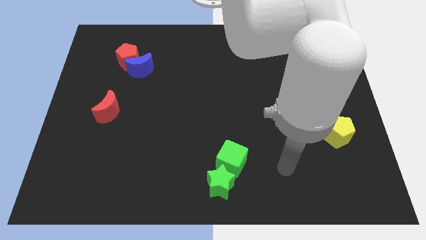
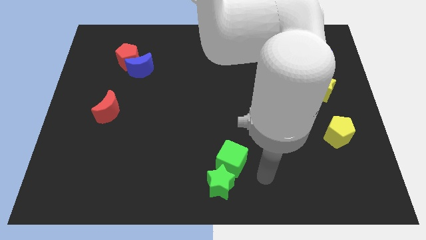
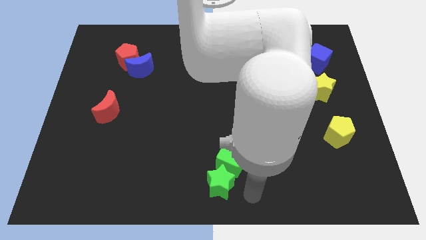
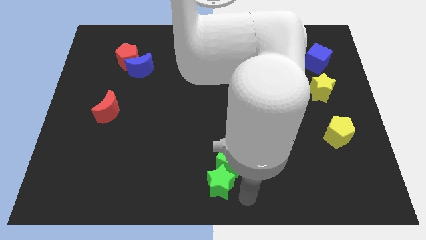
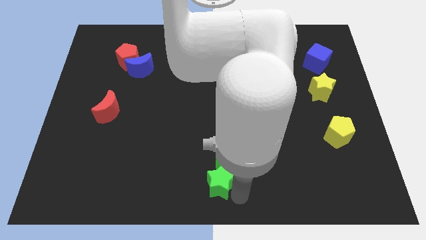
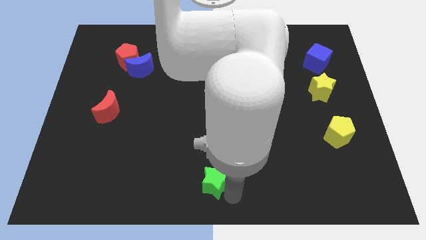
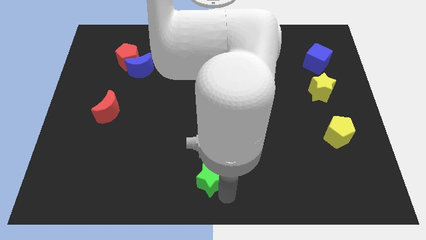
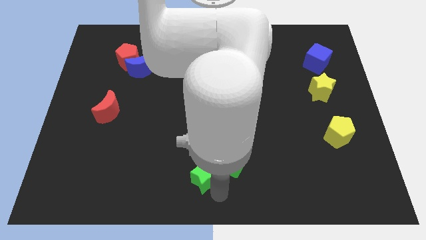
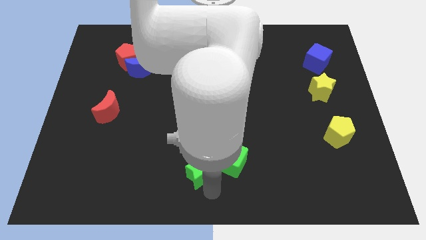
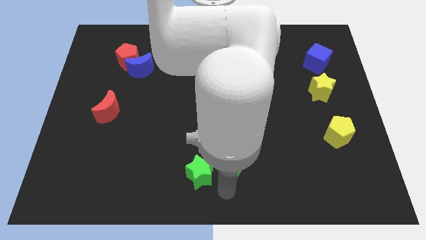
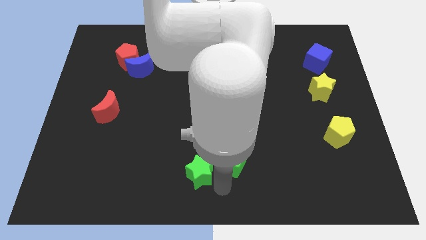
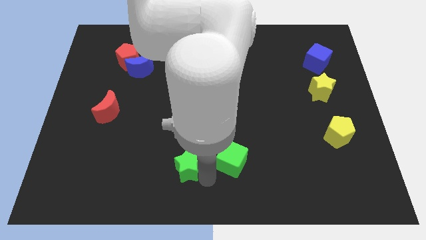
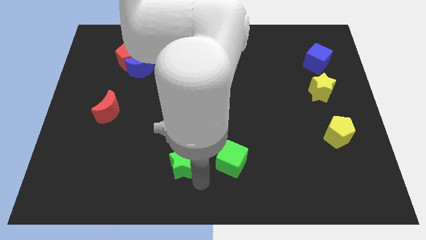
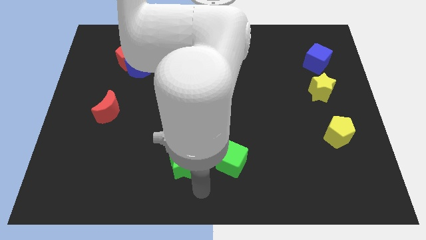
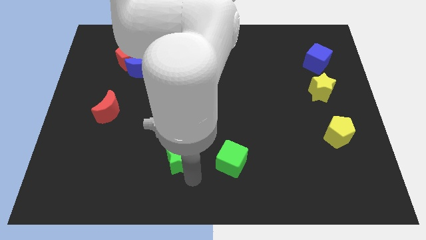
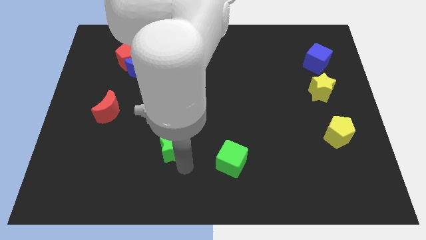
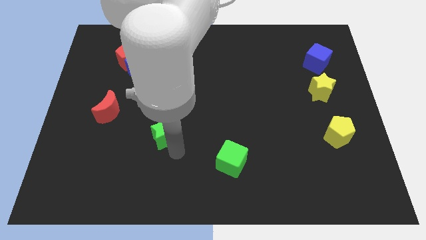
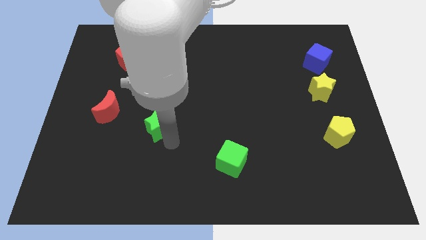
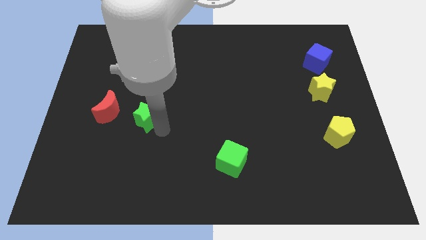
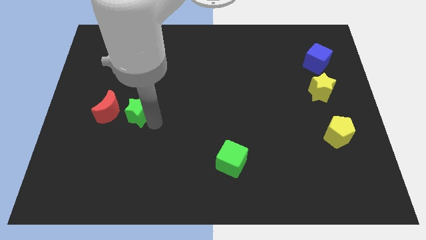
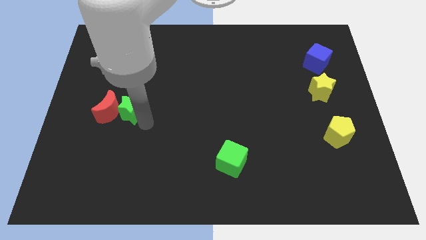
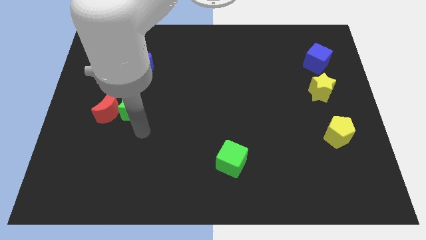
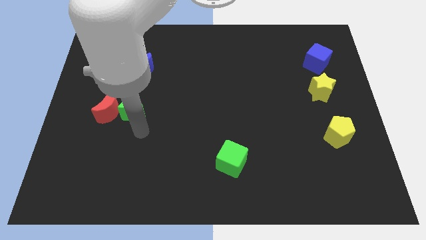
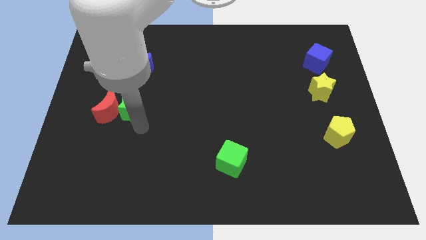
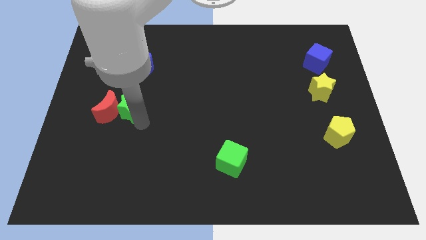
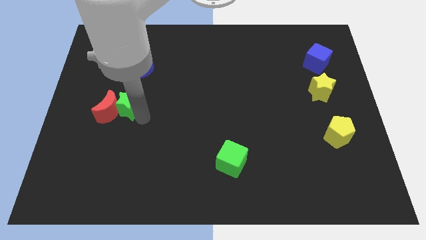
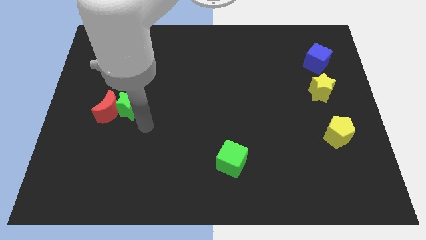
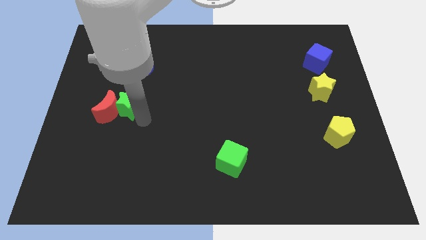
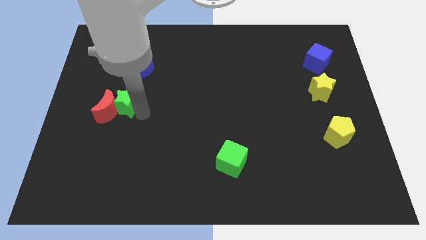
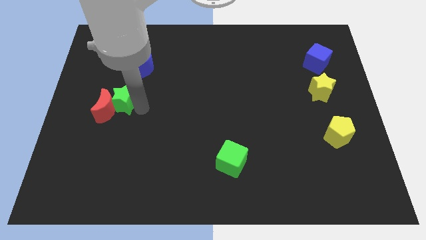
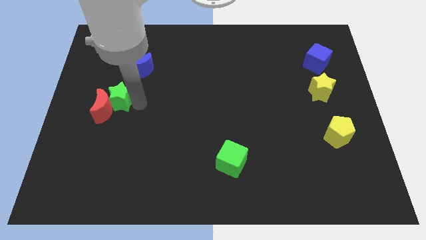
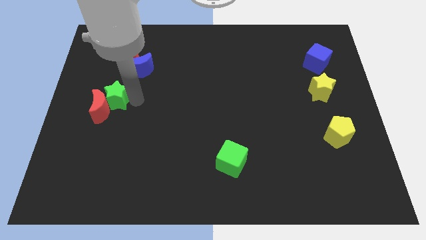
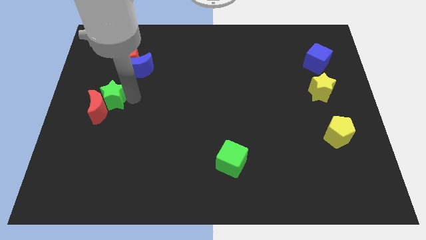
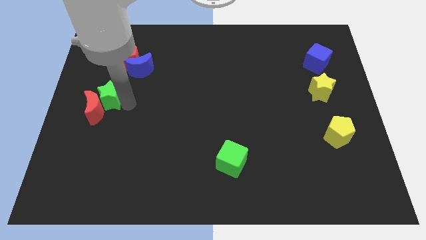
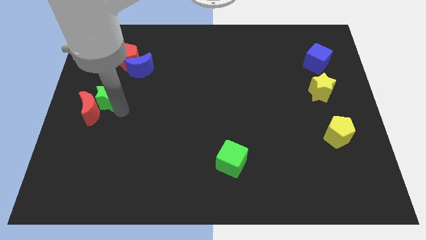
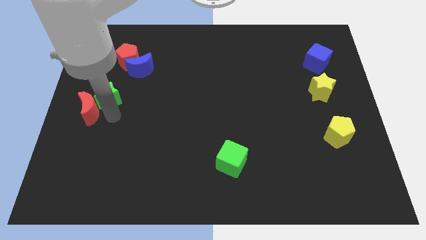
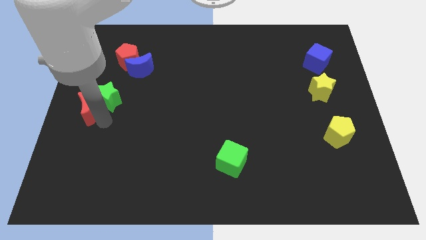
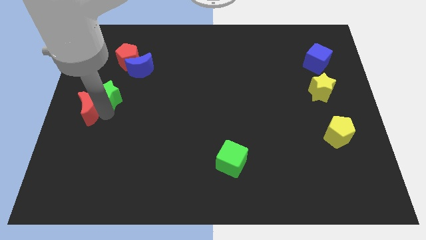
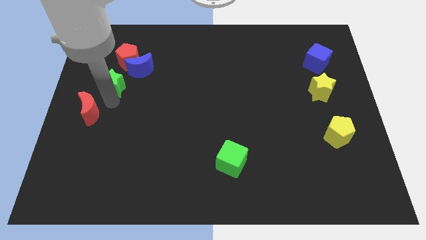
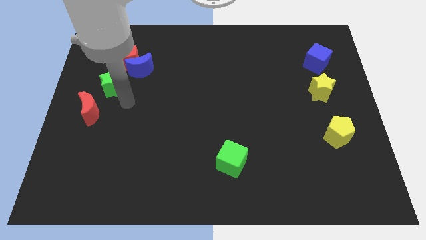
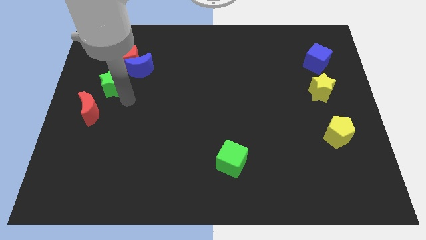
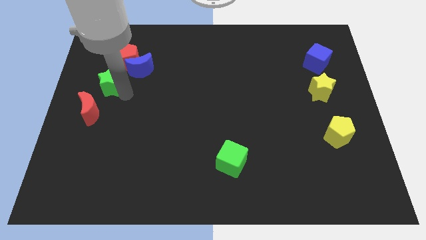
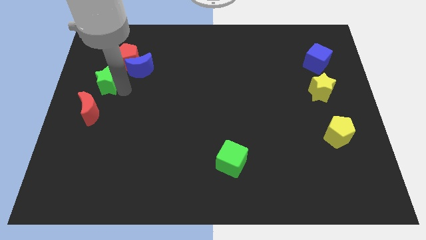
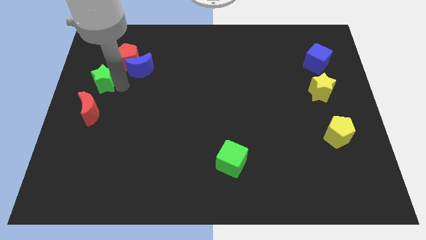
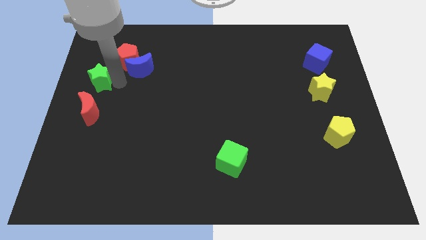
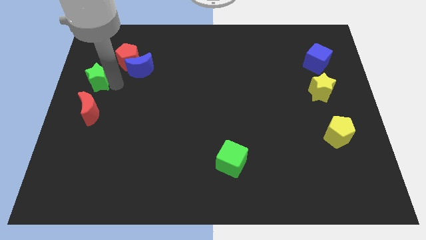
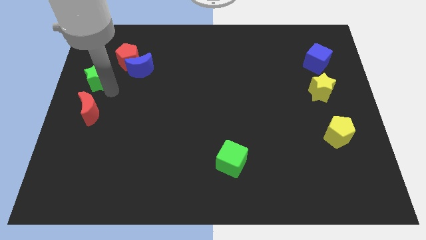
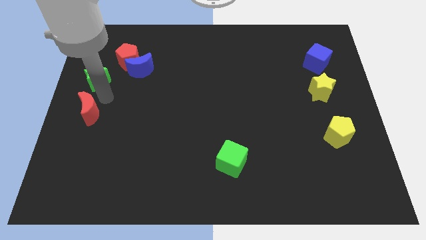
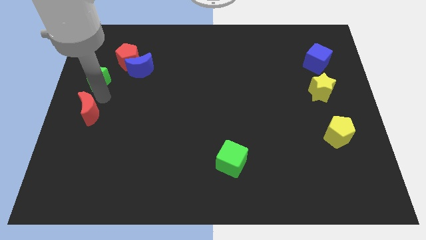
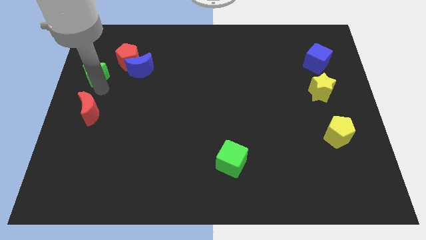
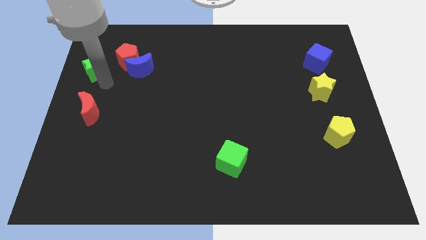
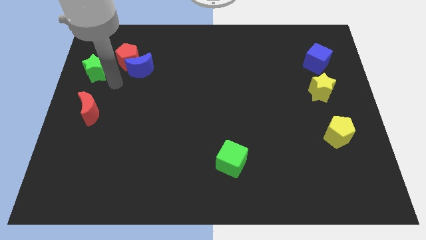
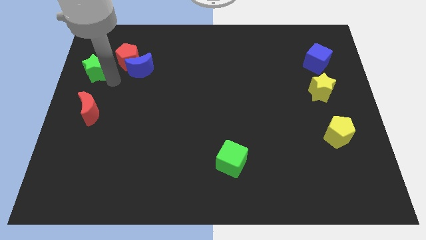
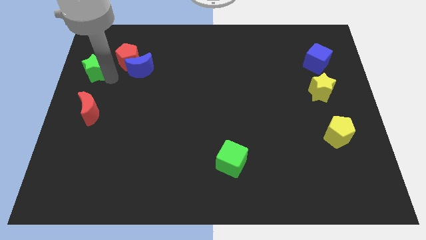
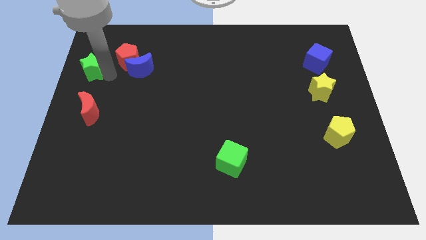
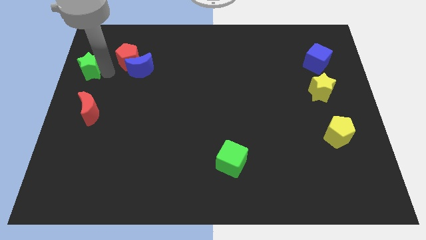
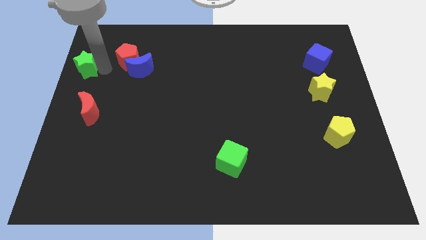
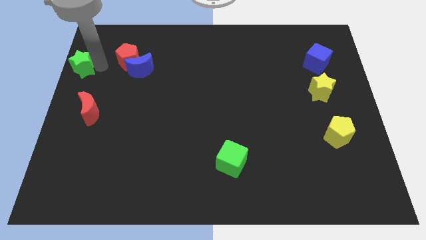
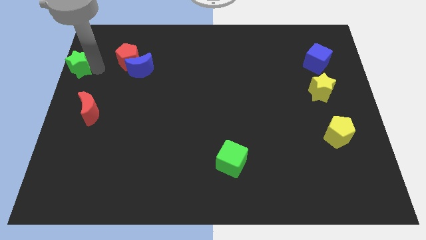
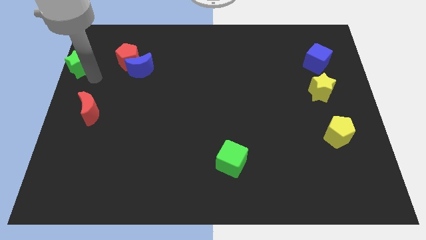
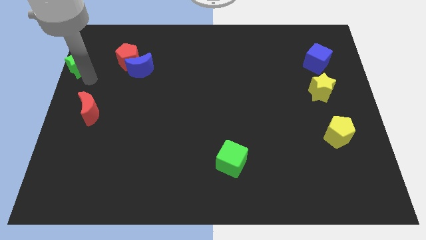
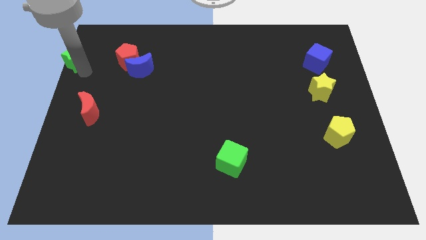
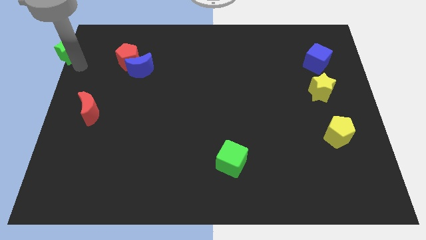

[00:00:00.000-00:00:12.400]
put the green star to the upper left corner

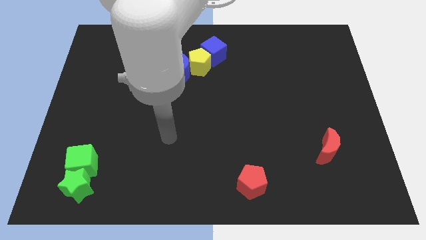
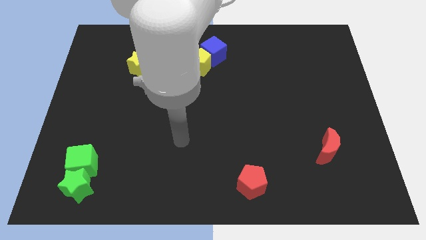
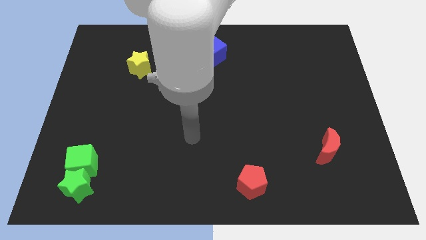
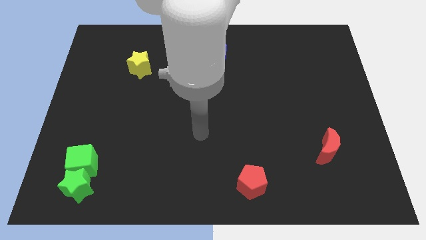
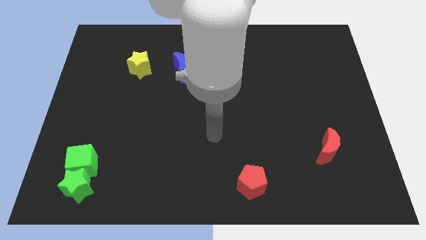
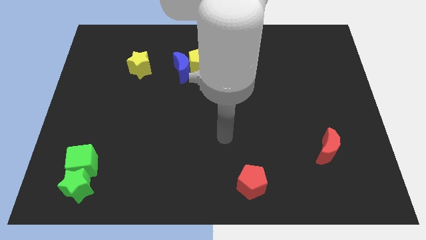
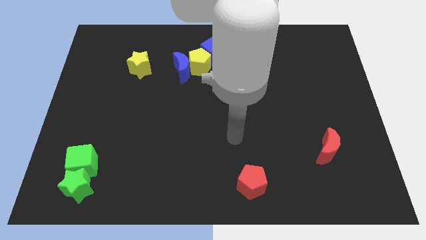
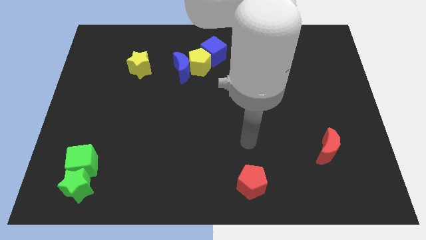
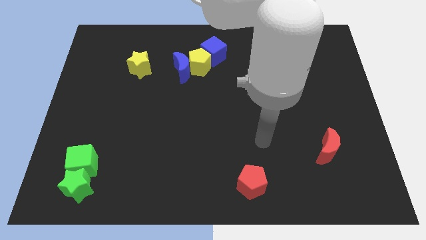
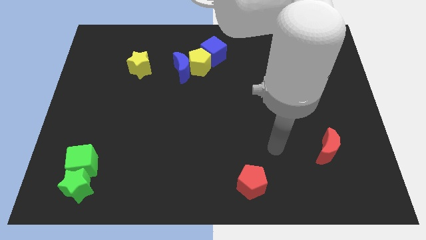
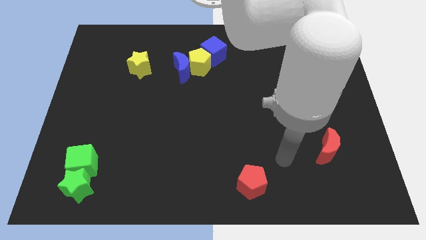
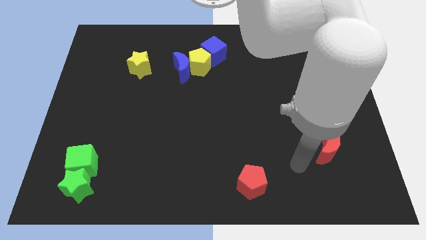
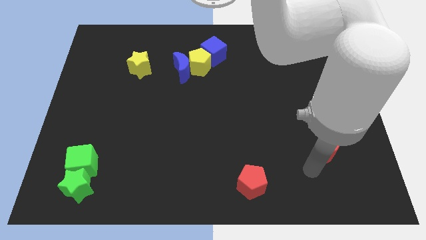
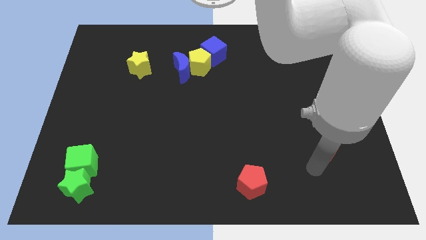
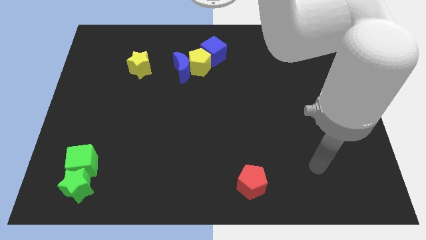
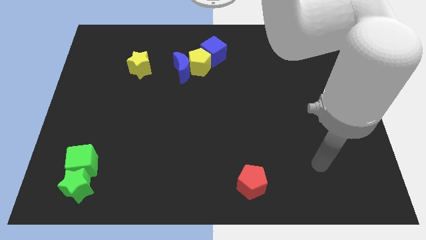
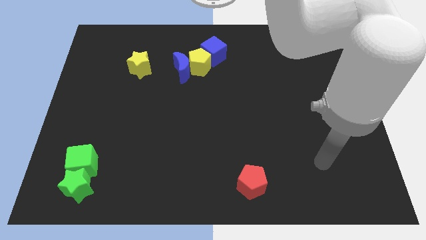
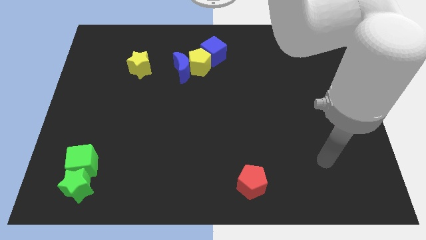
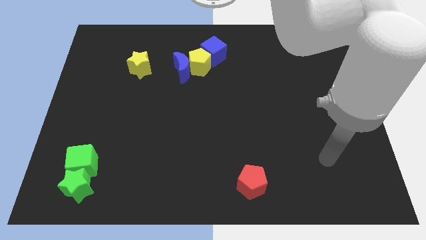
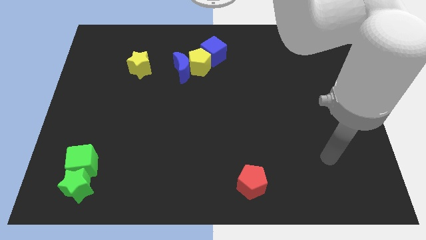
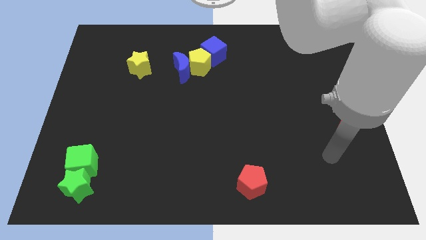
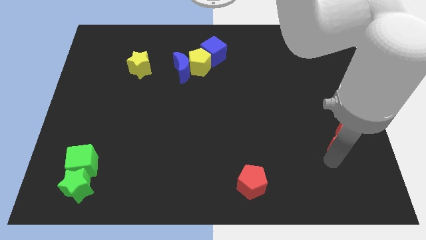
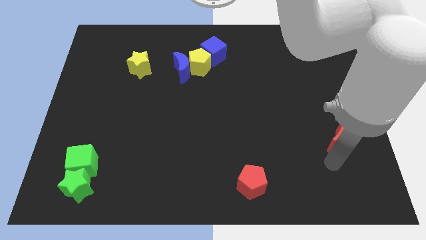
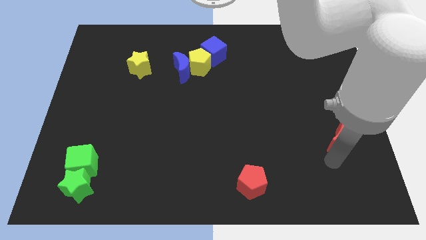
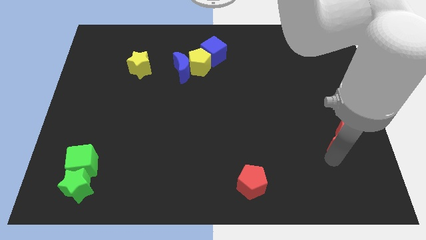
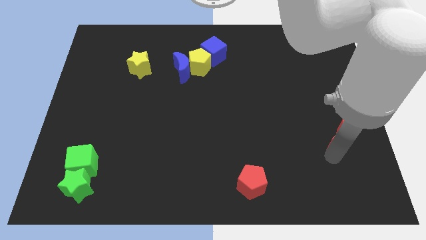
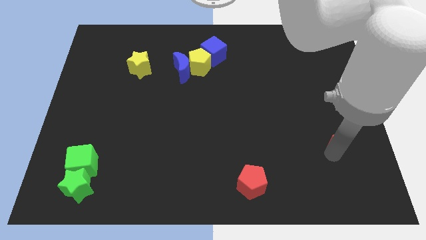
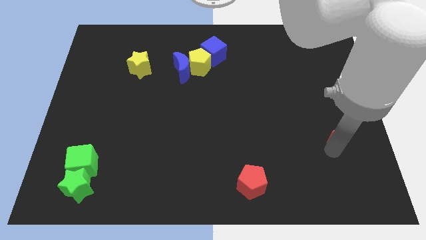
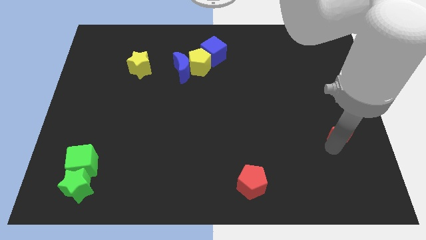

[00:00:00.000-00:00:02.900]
slide the red moon to the right side
